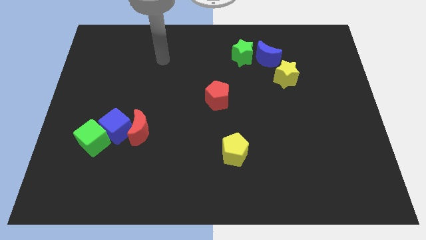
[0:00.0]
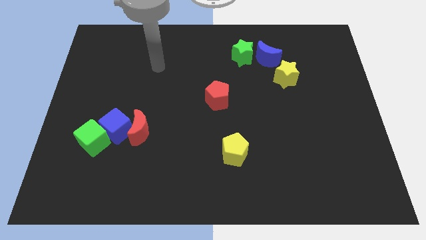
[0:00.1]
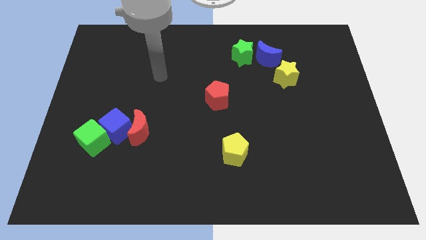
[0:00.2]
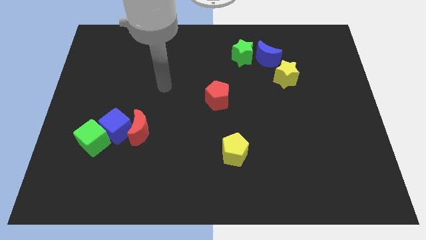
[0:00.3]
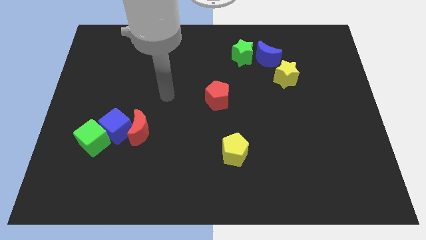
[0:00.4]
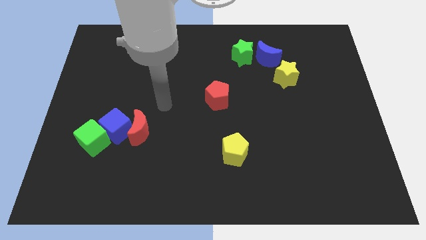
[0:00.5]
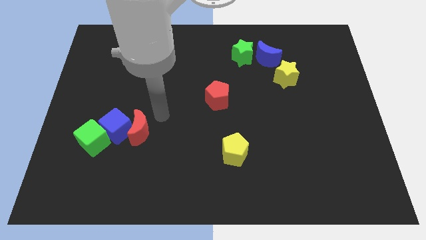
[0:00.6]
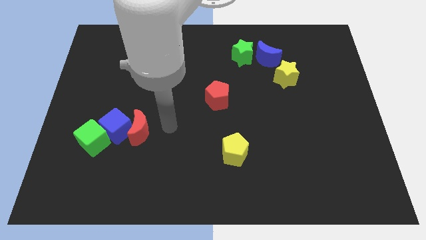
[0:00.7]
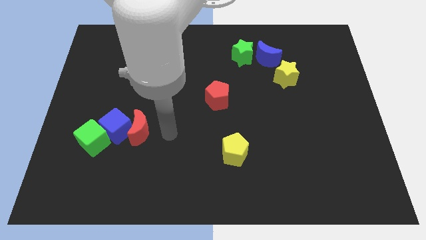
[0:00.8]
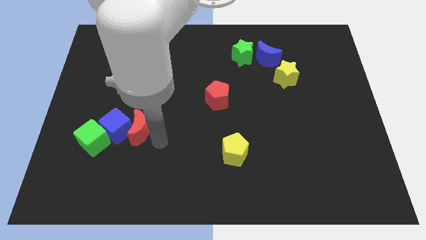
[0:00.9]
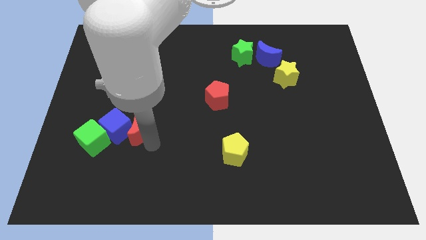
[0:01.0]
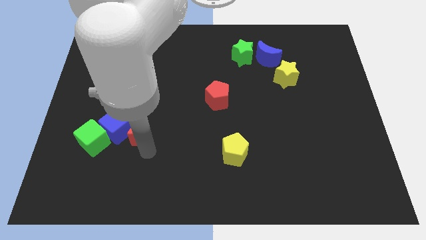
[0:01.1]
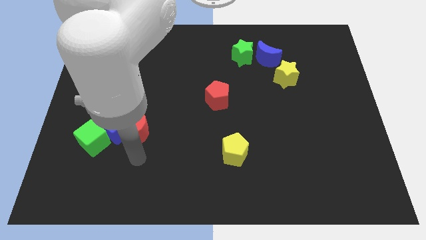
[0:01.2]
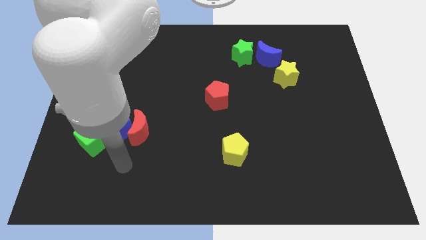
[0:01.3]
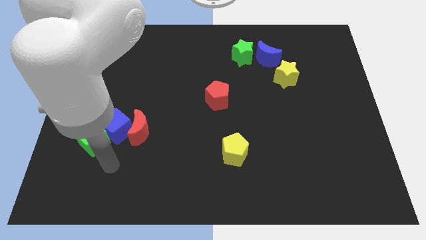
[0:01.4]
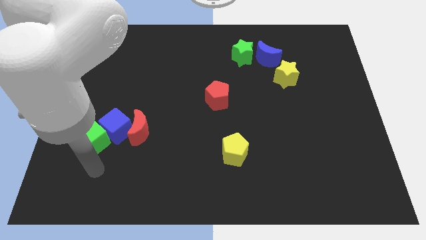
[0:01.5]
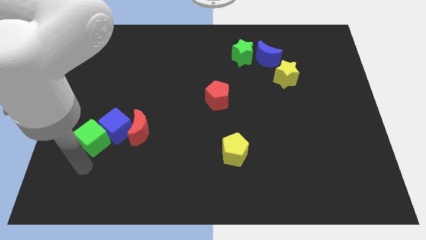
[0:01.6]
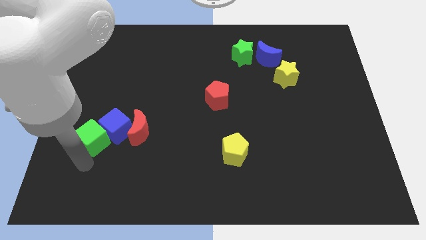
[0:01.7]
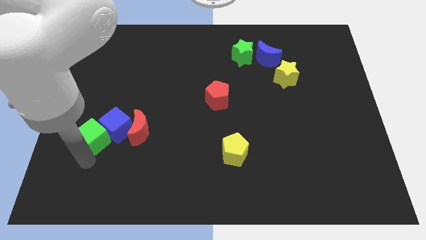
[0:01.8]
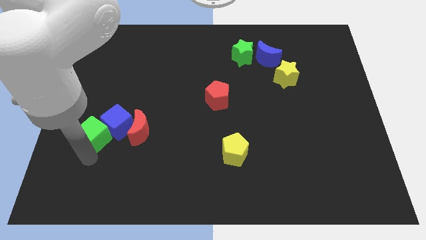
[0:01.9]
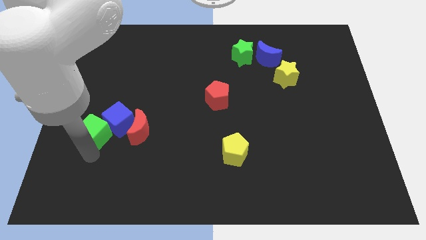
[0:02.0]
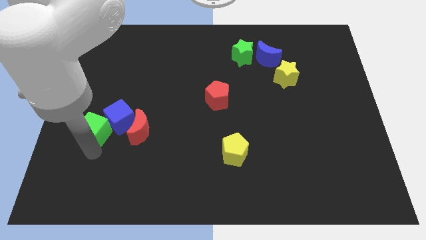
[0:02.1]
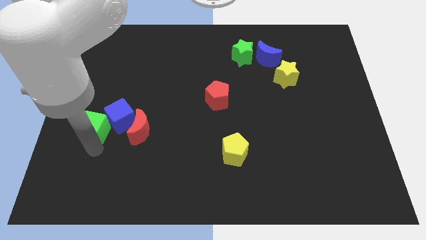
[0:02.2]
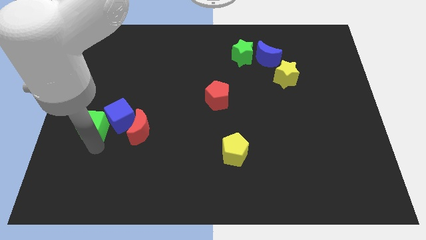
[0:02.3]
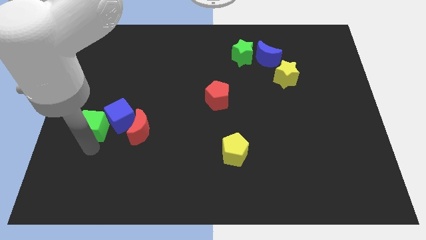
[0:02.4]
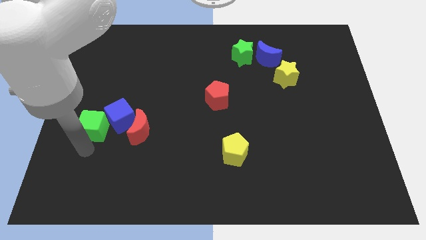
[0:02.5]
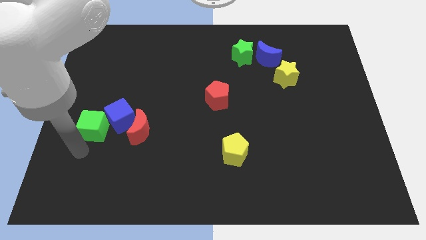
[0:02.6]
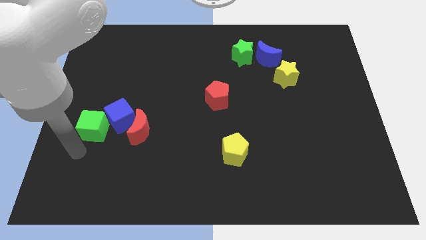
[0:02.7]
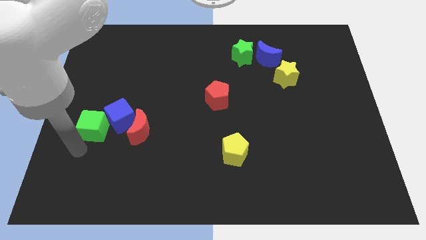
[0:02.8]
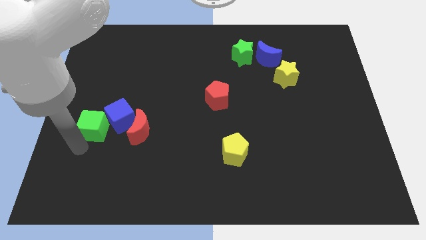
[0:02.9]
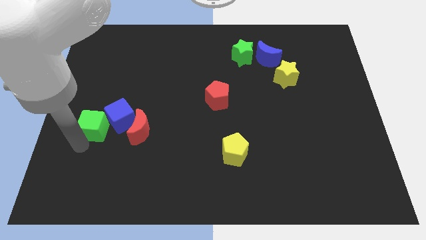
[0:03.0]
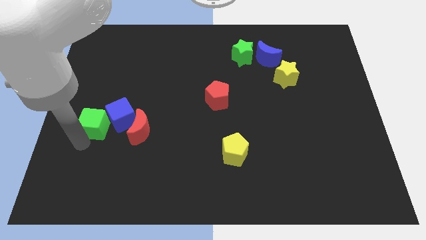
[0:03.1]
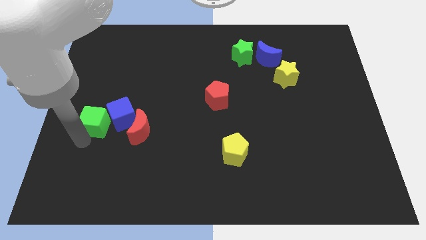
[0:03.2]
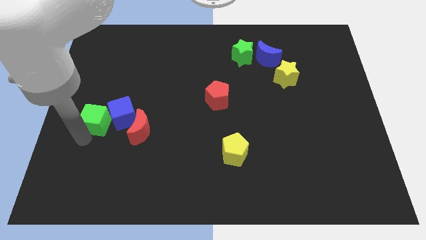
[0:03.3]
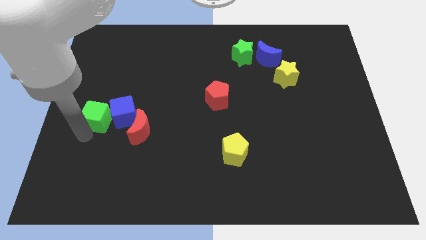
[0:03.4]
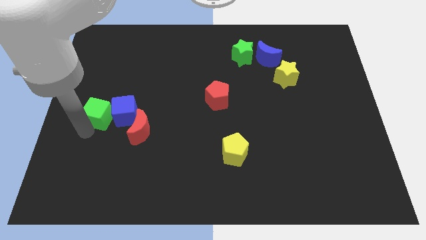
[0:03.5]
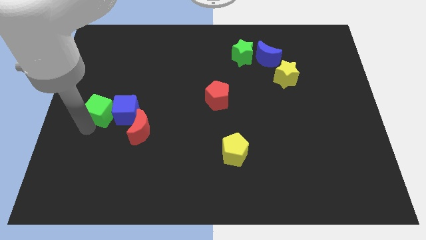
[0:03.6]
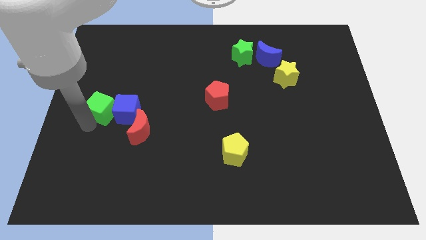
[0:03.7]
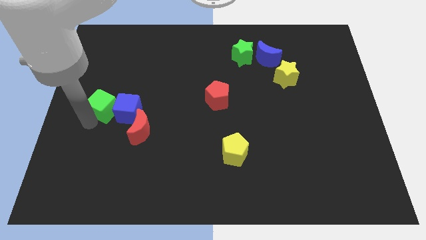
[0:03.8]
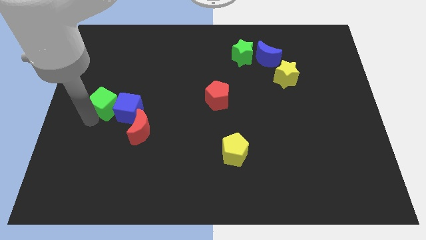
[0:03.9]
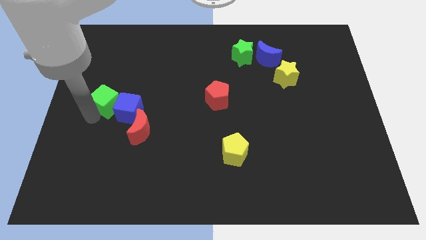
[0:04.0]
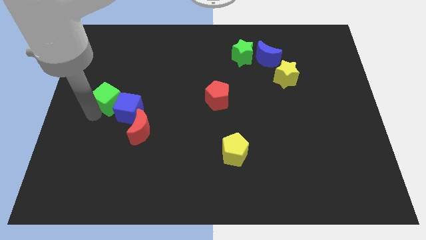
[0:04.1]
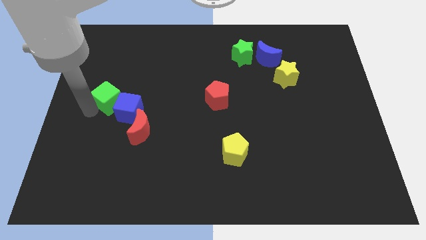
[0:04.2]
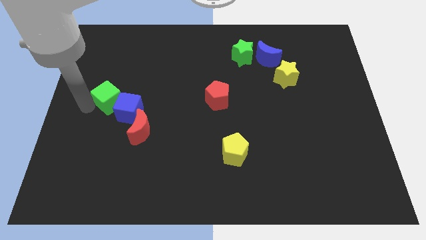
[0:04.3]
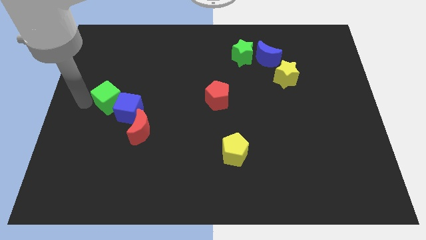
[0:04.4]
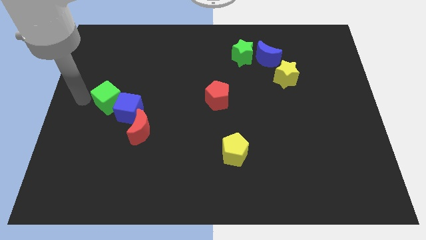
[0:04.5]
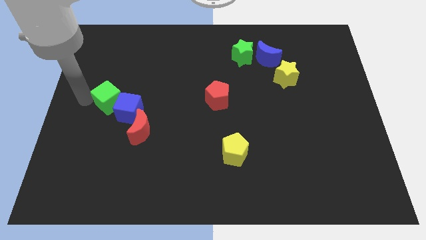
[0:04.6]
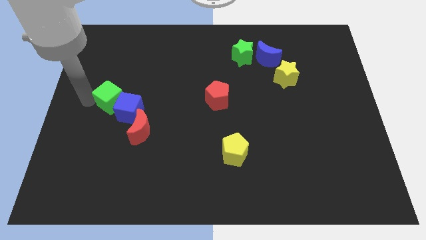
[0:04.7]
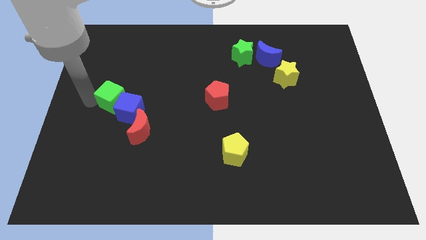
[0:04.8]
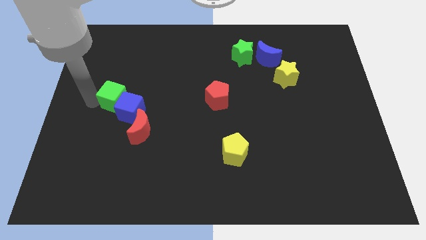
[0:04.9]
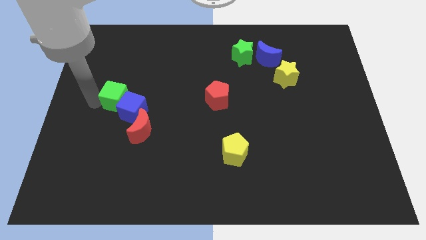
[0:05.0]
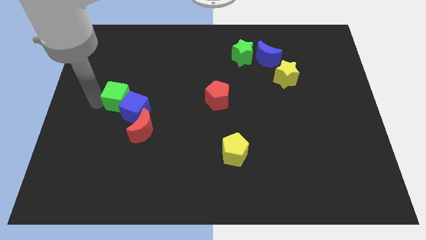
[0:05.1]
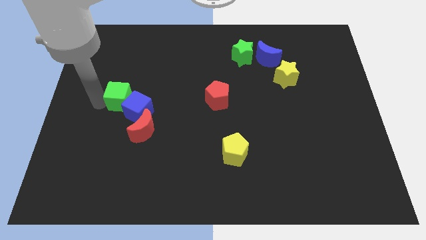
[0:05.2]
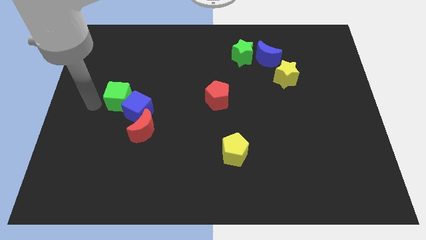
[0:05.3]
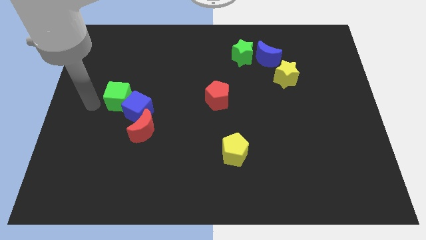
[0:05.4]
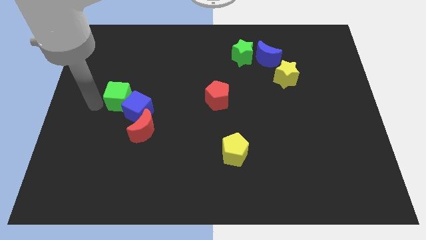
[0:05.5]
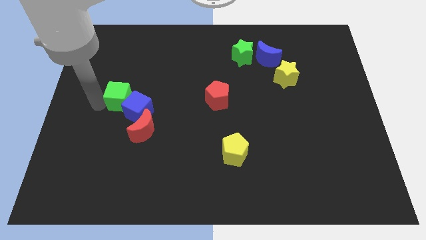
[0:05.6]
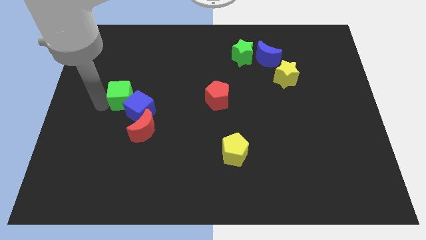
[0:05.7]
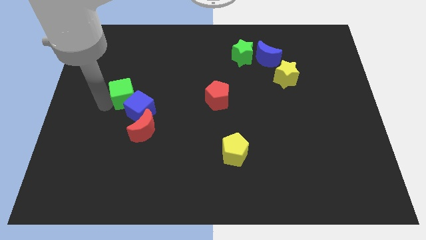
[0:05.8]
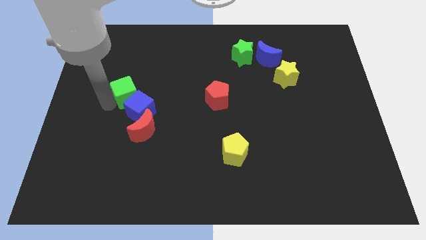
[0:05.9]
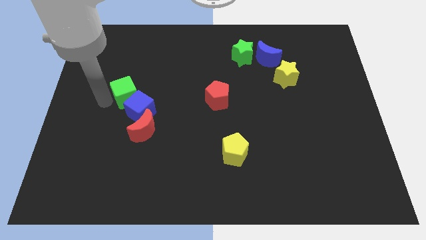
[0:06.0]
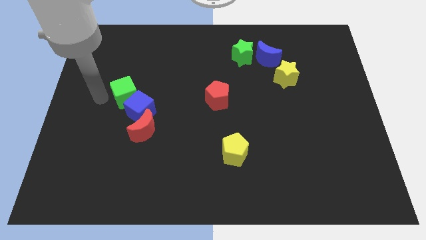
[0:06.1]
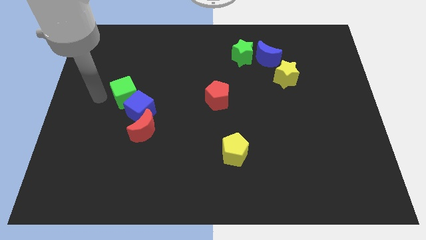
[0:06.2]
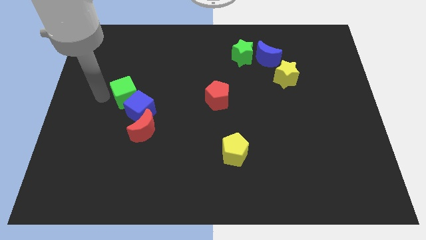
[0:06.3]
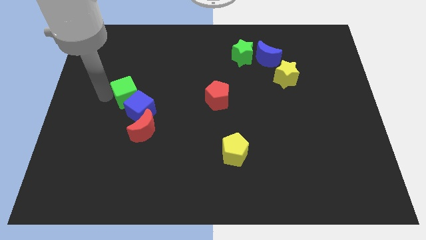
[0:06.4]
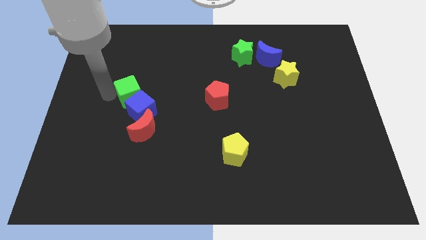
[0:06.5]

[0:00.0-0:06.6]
move the green cube above the red moon
